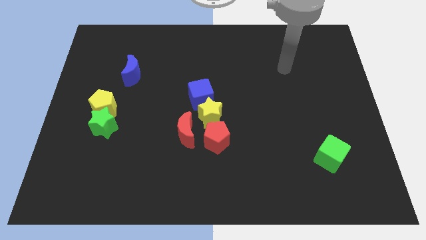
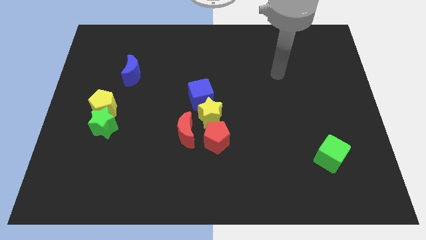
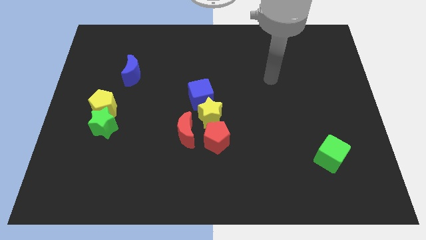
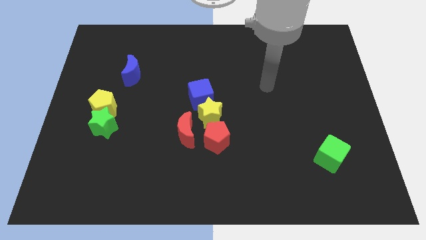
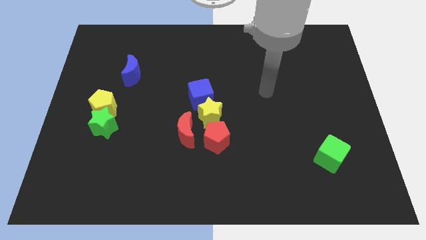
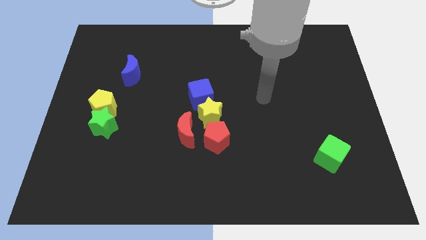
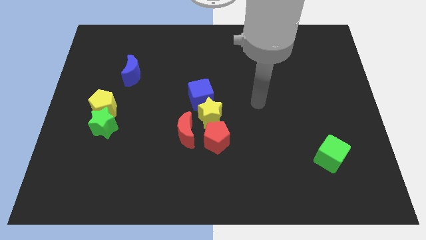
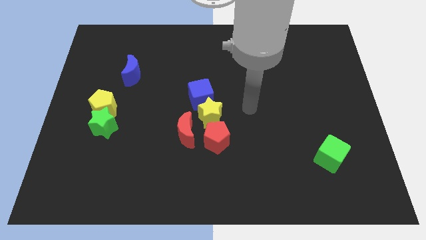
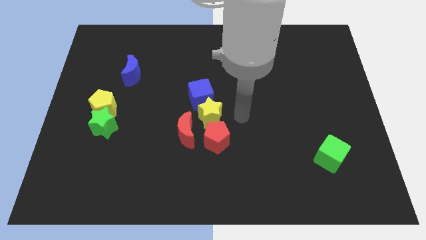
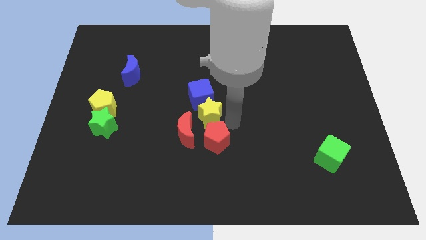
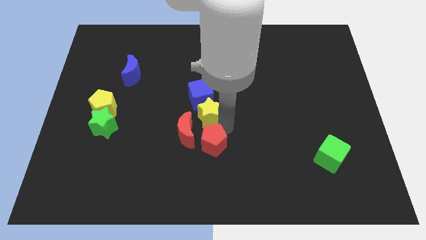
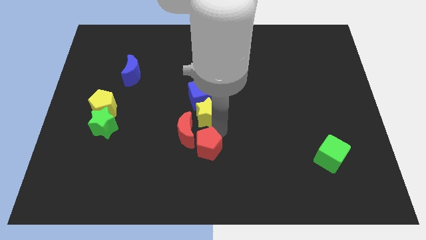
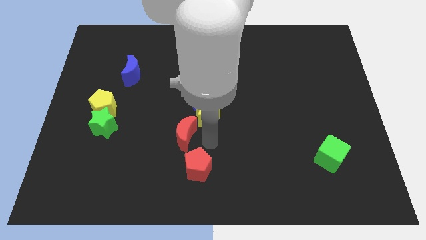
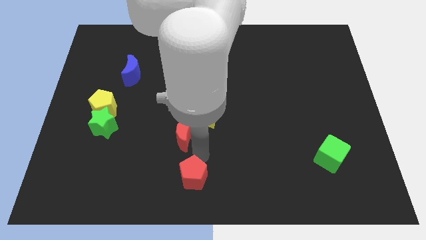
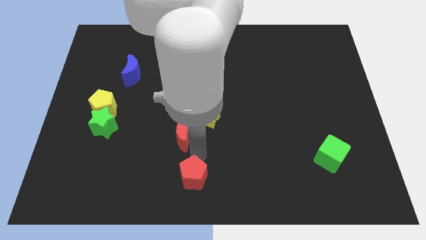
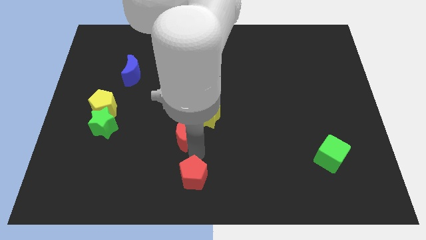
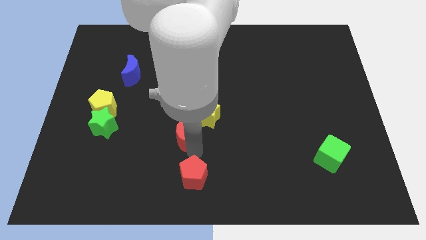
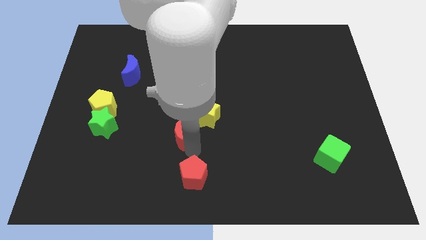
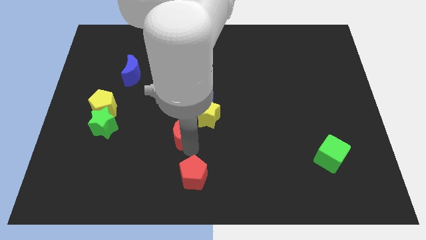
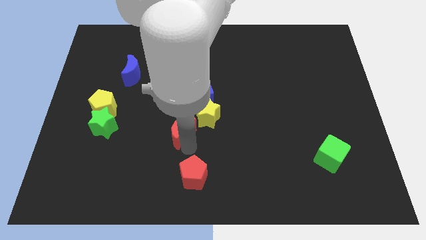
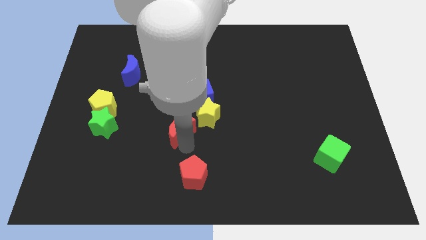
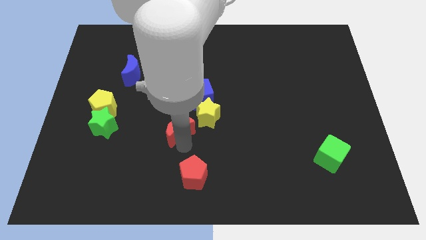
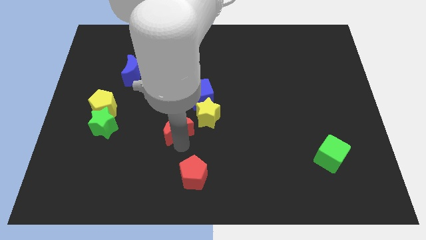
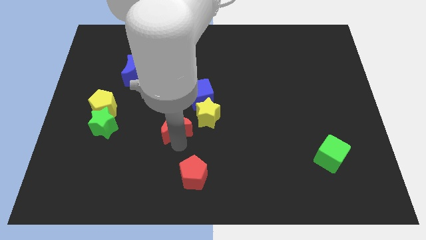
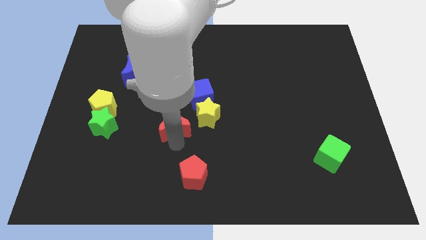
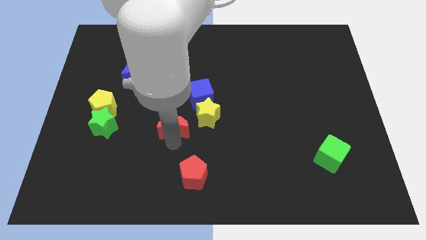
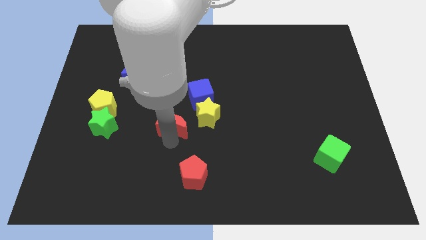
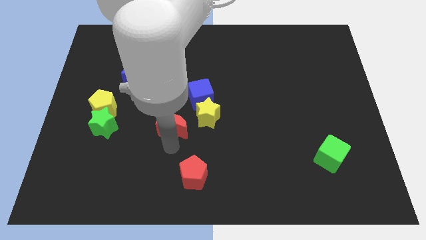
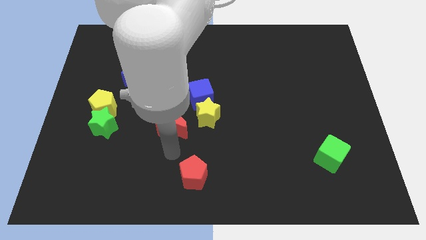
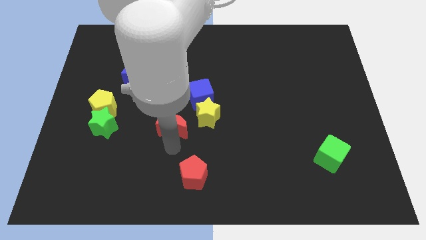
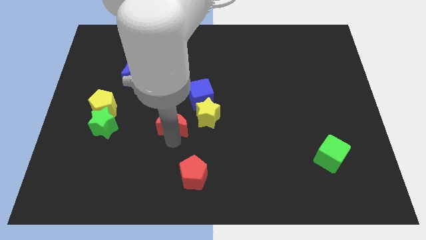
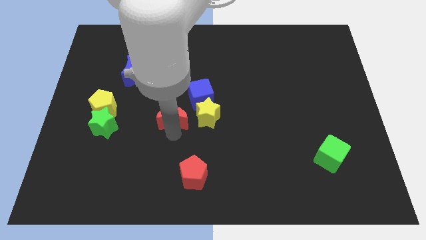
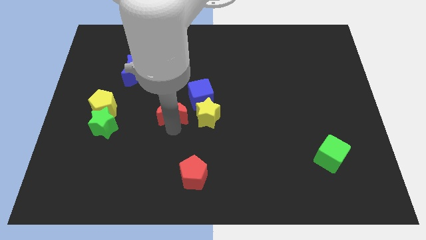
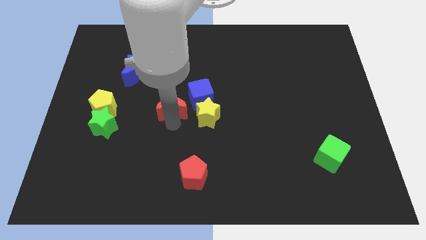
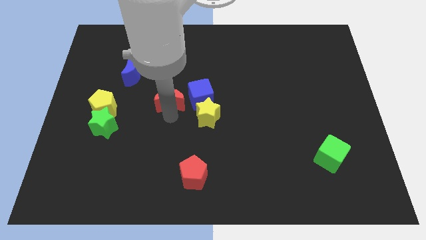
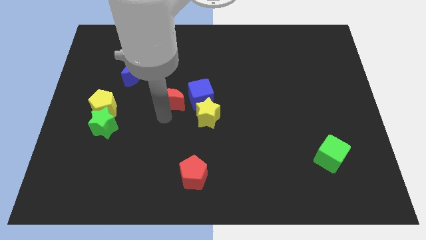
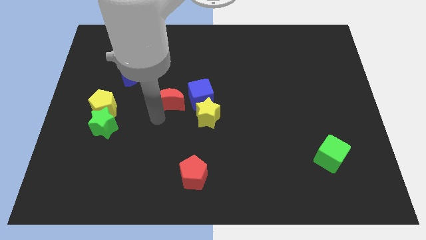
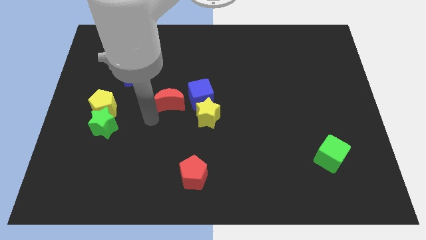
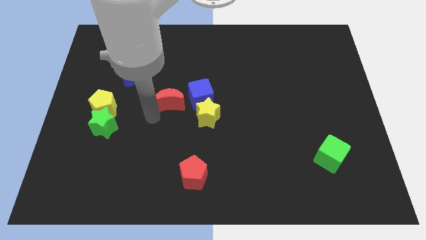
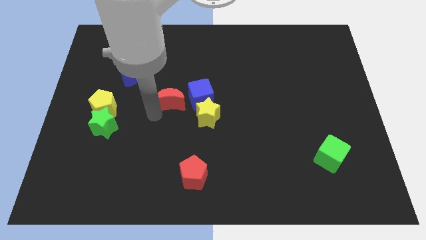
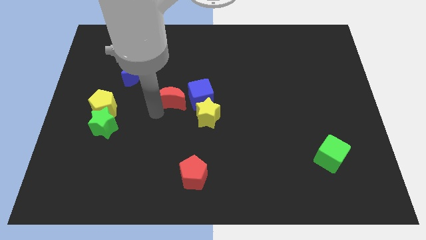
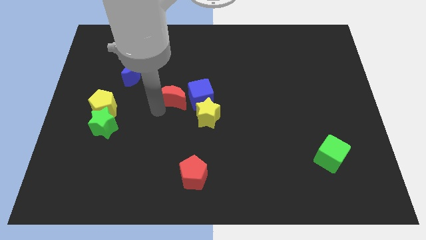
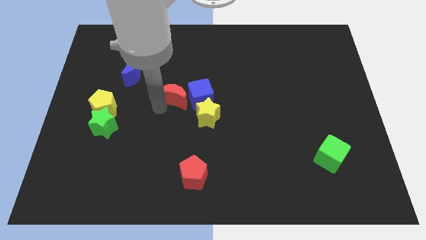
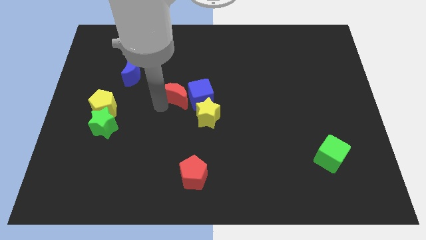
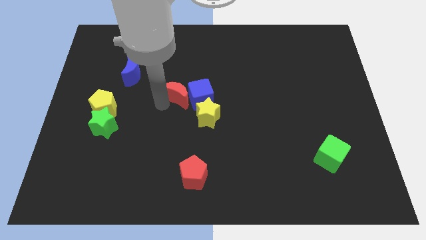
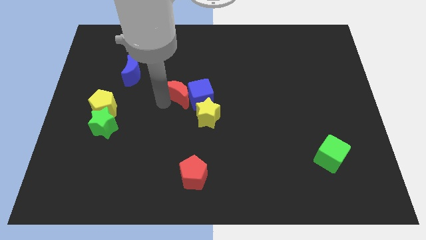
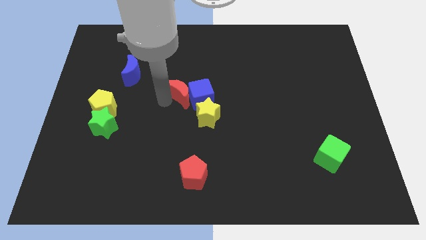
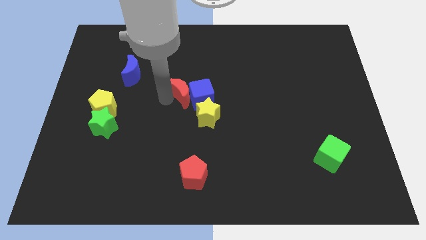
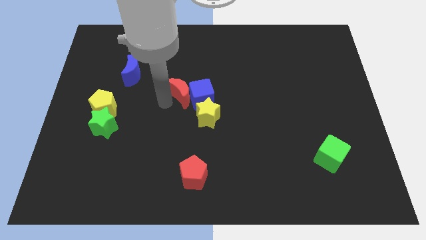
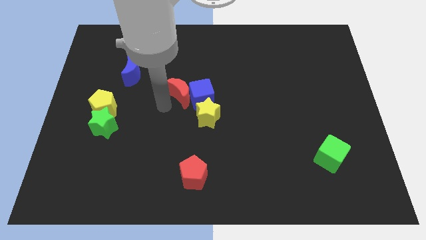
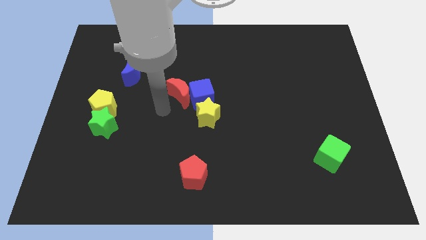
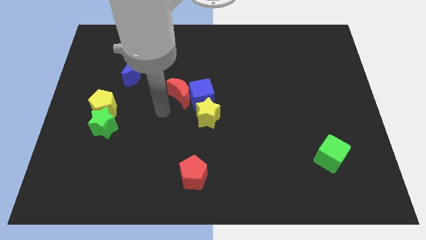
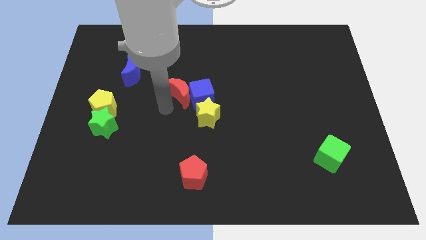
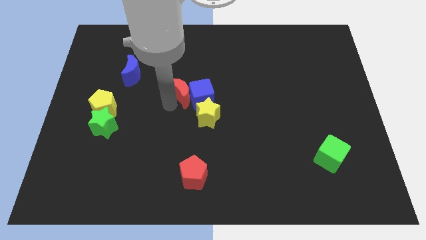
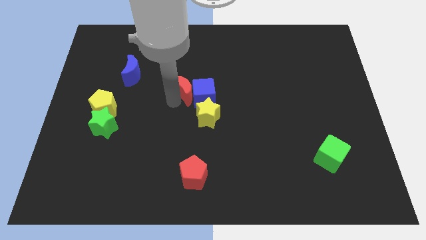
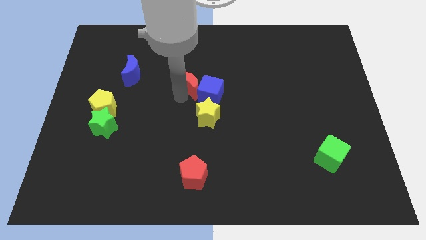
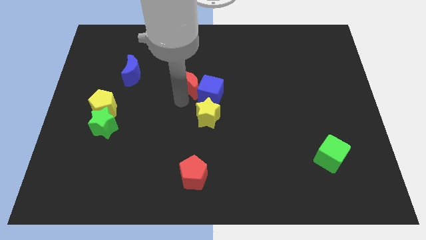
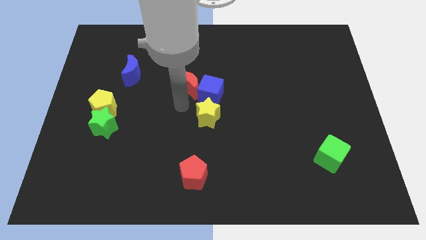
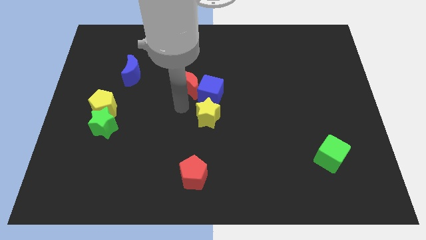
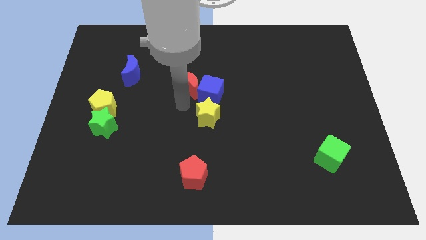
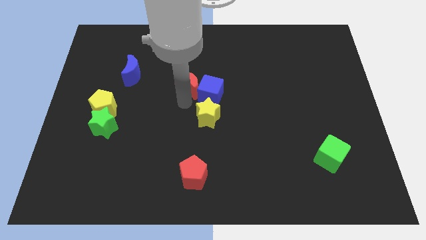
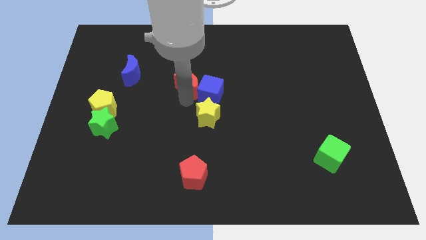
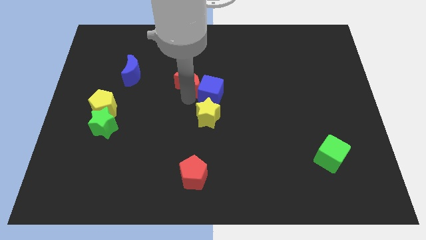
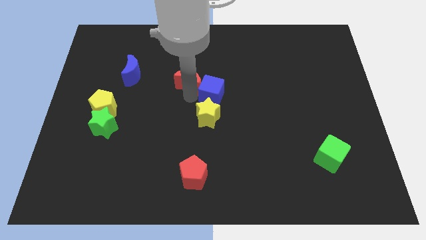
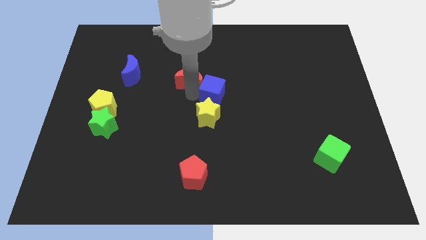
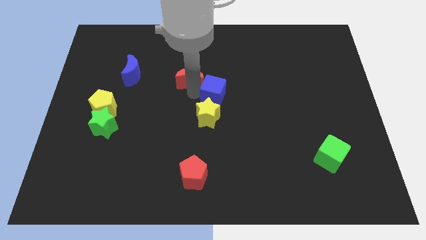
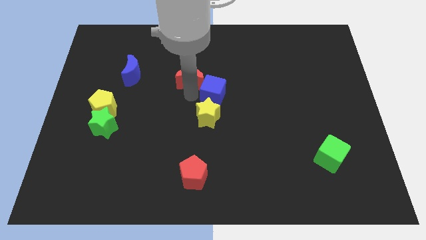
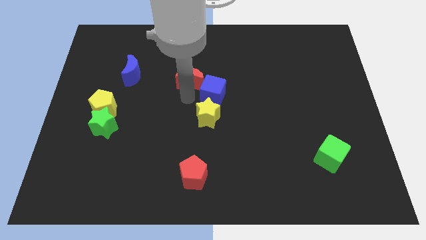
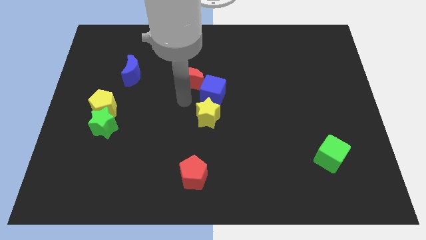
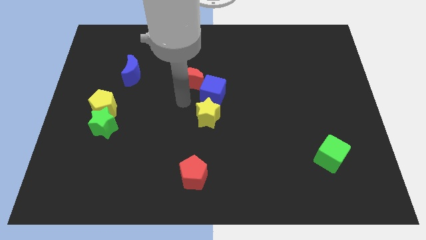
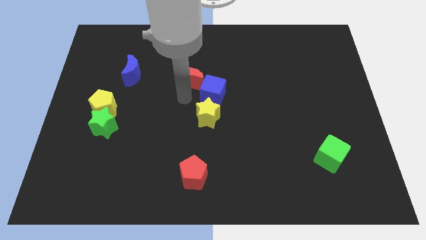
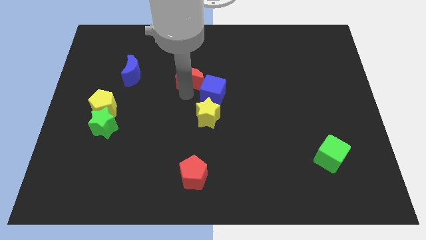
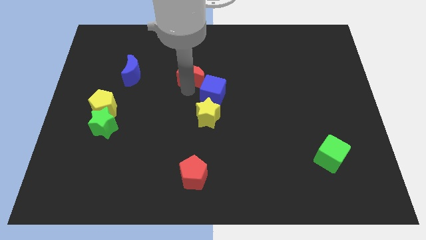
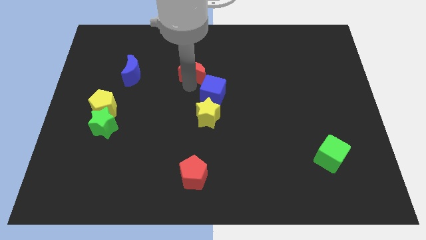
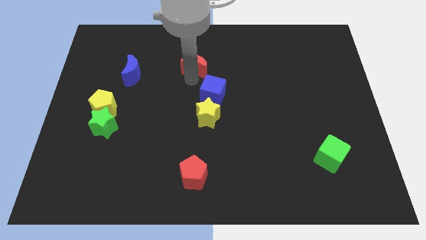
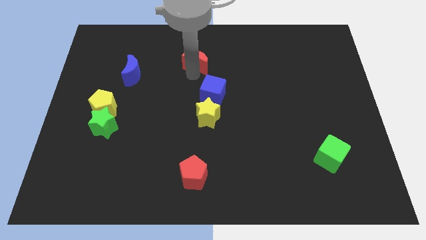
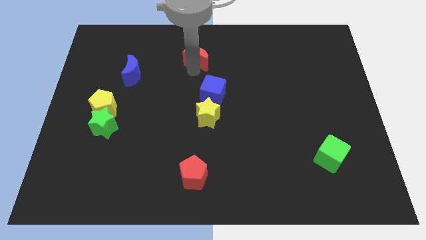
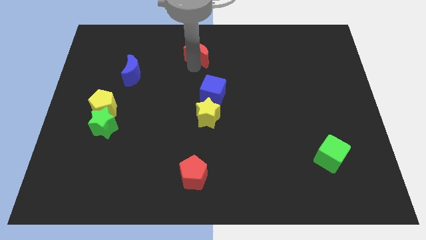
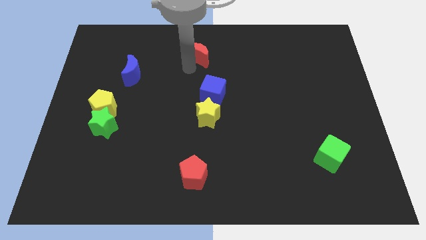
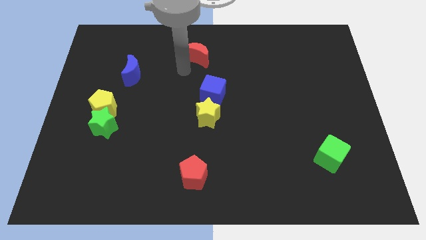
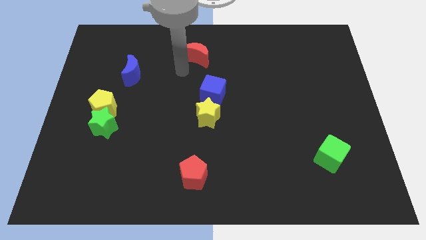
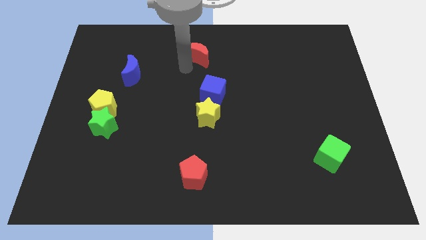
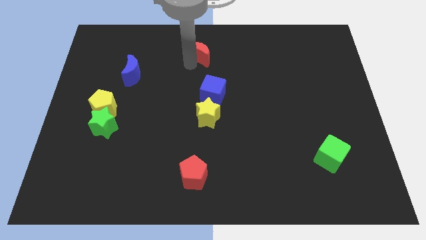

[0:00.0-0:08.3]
put the red moon to the top
